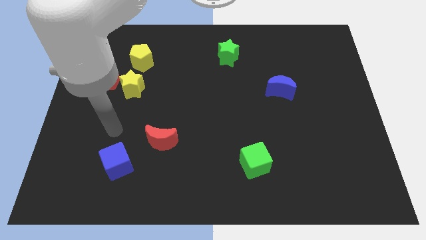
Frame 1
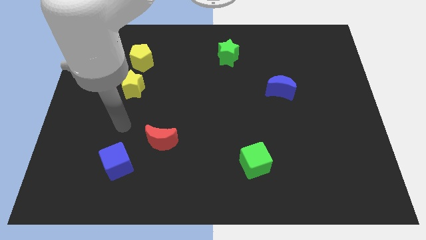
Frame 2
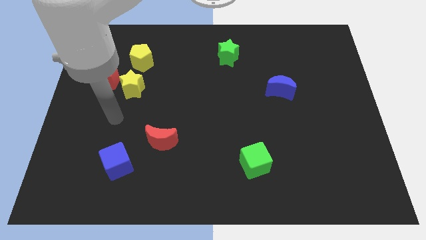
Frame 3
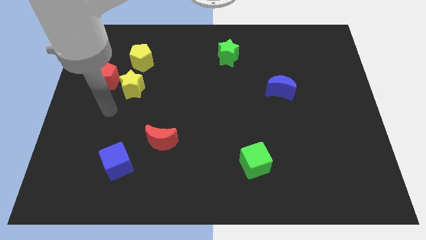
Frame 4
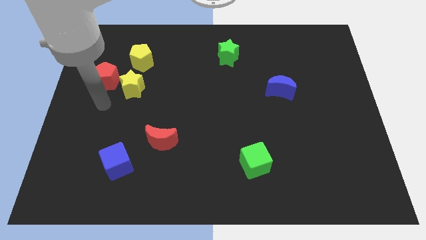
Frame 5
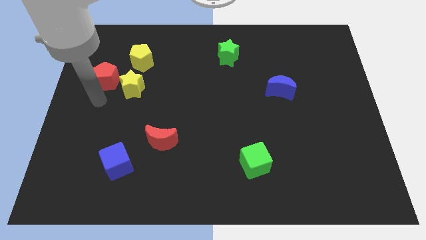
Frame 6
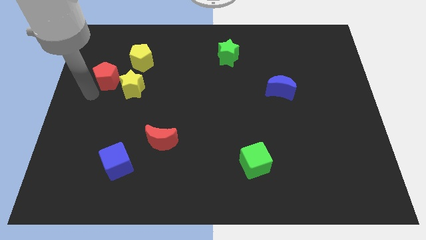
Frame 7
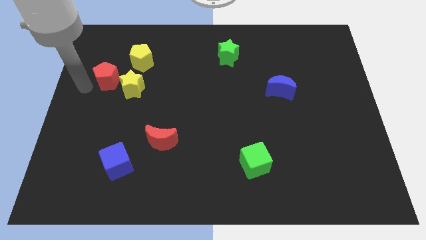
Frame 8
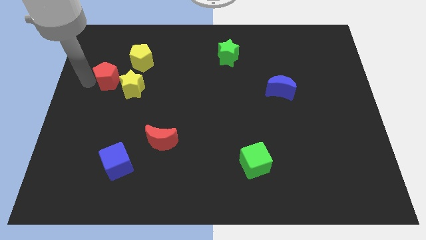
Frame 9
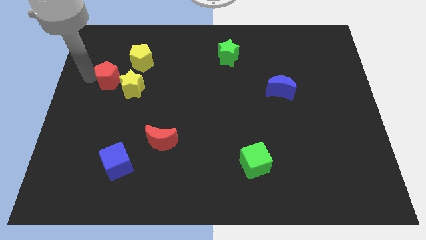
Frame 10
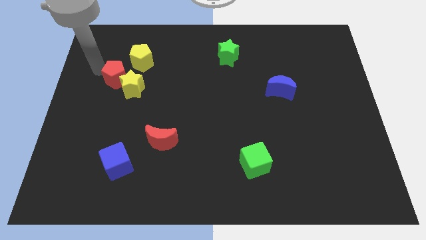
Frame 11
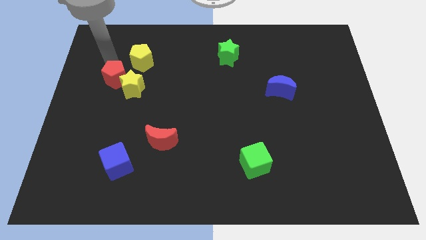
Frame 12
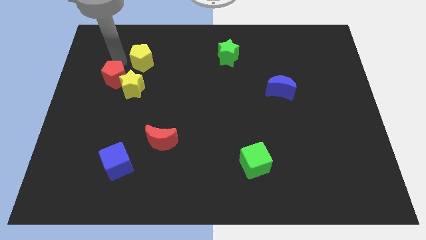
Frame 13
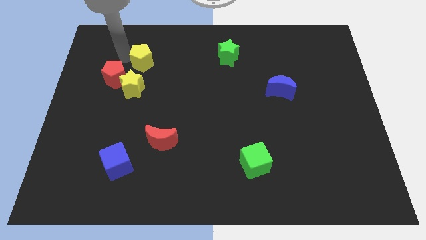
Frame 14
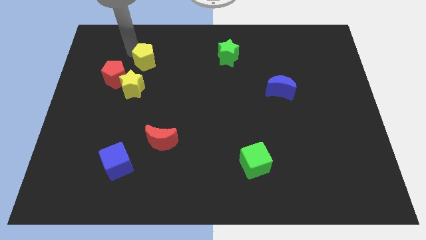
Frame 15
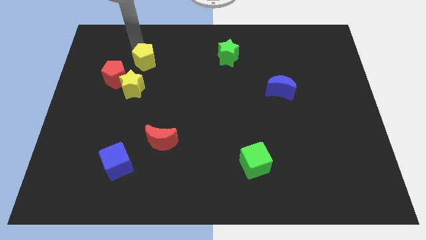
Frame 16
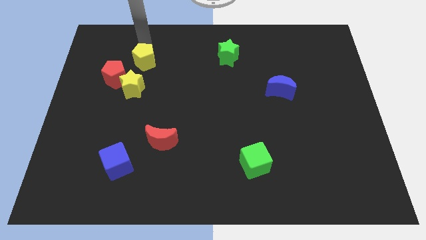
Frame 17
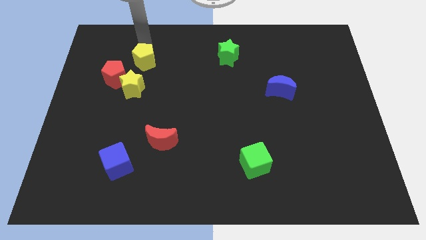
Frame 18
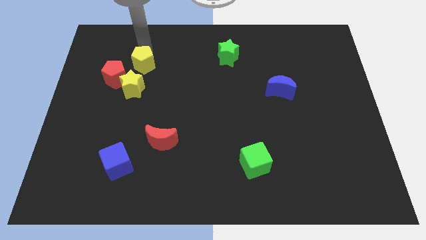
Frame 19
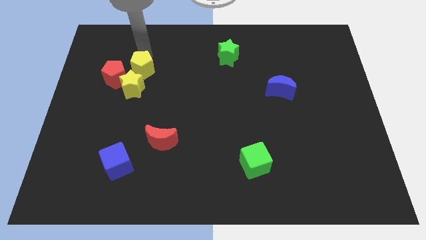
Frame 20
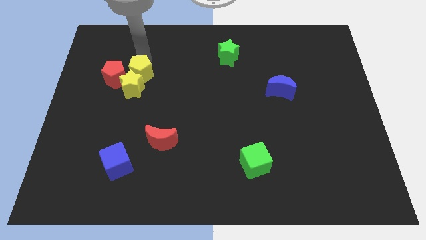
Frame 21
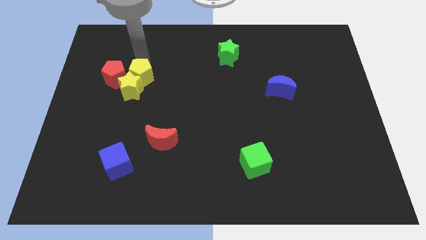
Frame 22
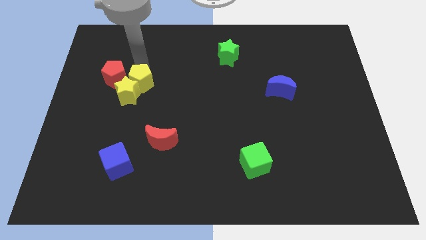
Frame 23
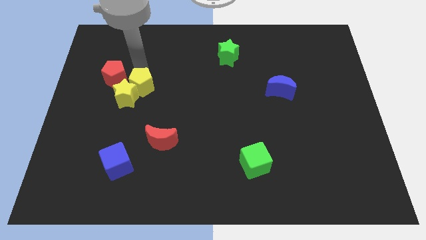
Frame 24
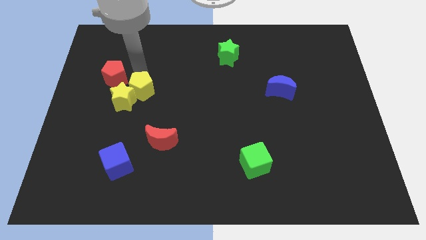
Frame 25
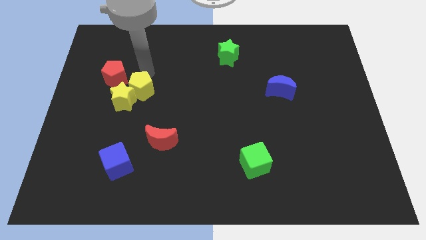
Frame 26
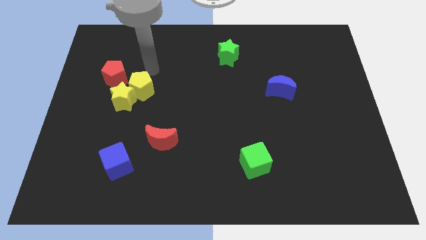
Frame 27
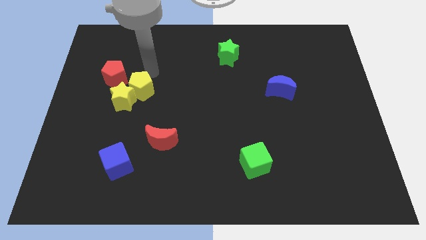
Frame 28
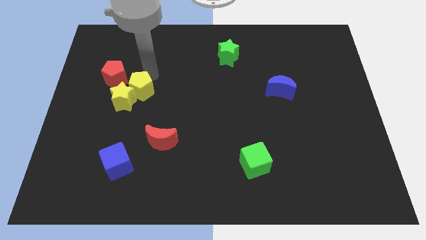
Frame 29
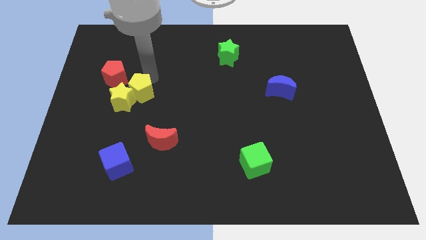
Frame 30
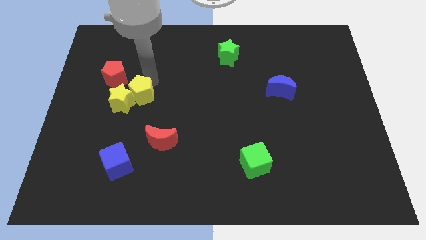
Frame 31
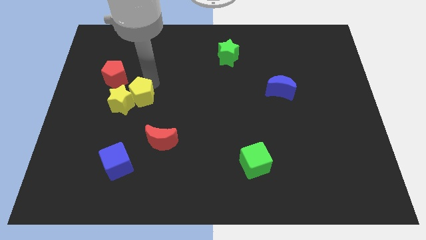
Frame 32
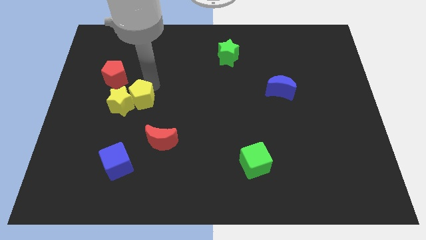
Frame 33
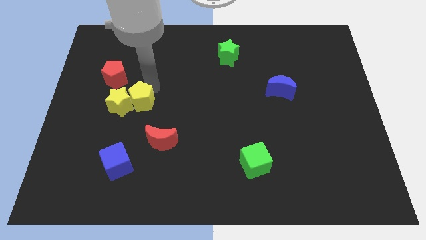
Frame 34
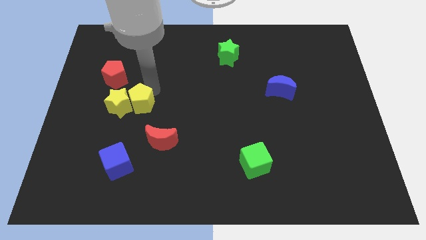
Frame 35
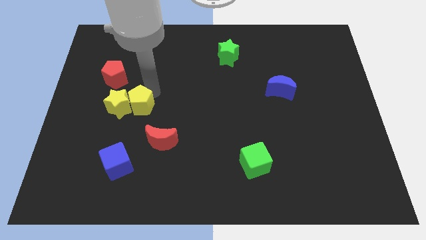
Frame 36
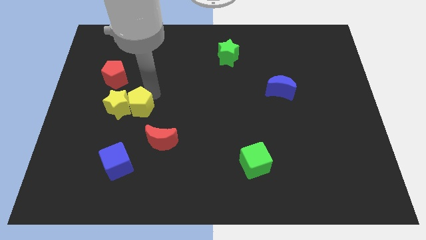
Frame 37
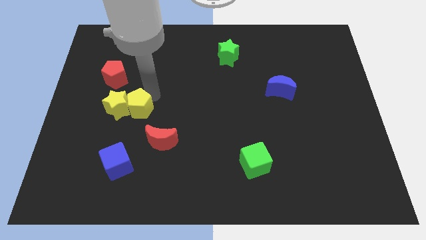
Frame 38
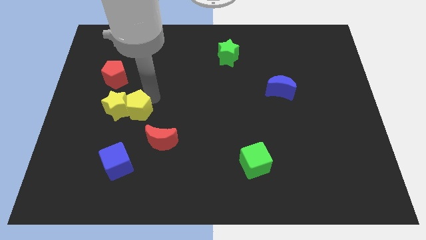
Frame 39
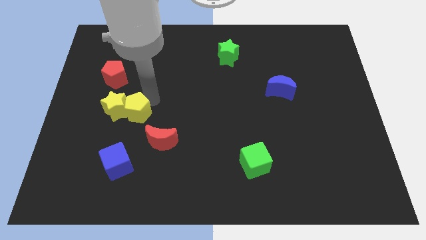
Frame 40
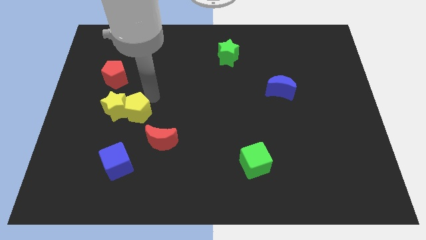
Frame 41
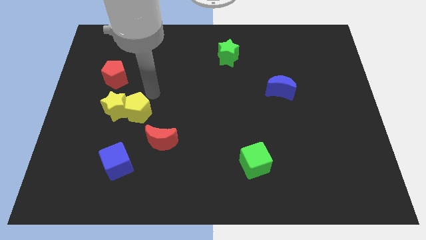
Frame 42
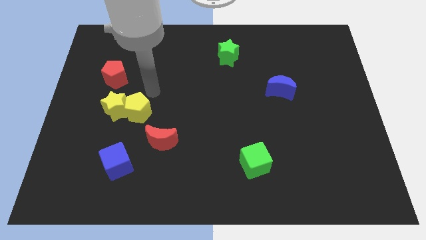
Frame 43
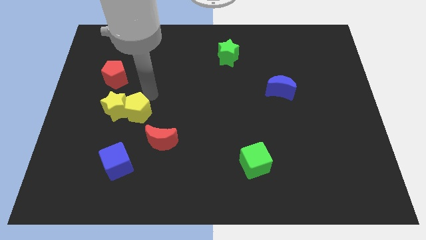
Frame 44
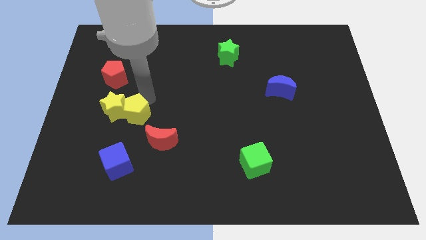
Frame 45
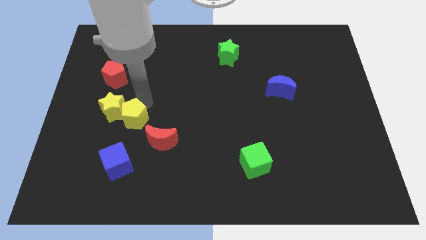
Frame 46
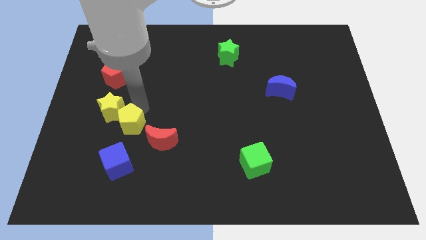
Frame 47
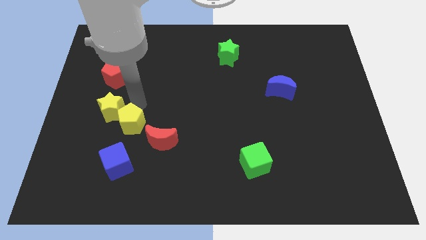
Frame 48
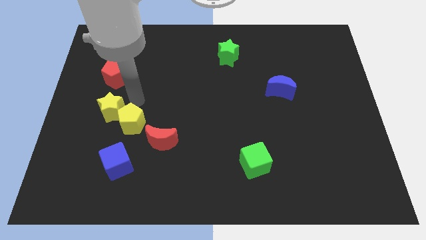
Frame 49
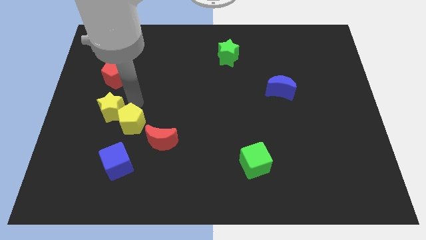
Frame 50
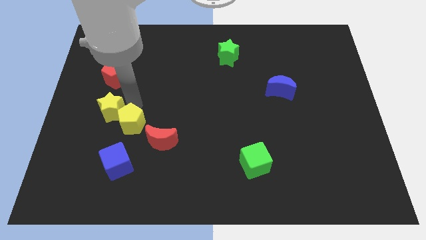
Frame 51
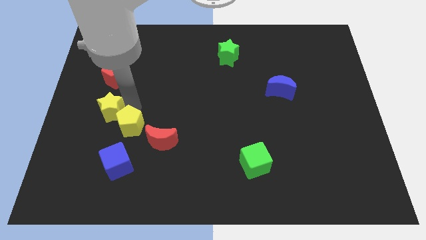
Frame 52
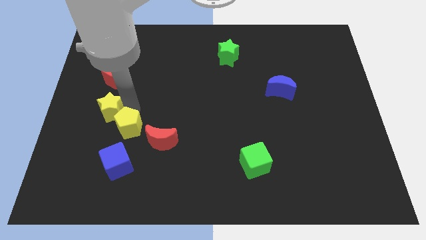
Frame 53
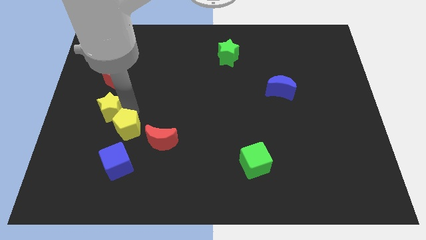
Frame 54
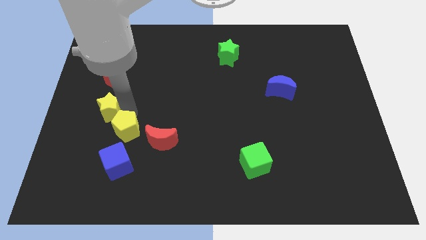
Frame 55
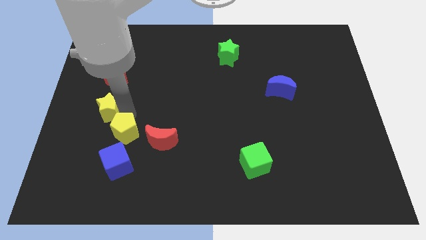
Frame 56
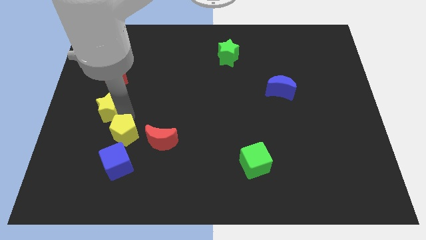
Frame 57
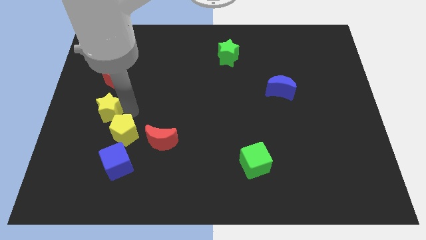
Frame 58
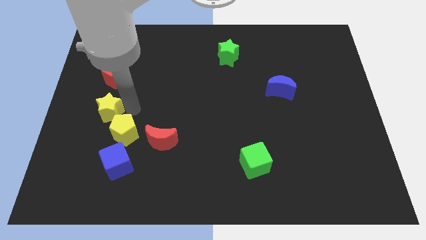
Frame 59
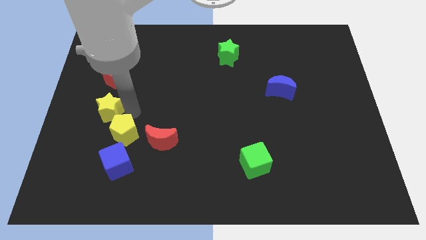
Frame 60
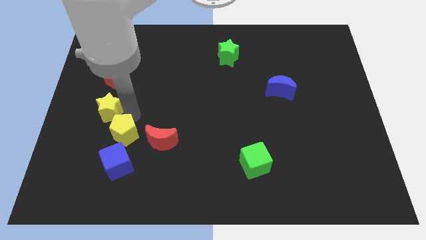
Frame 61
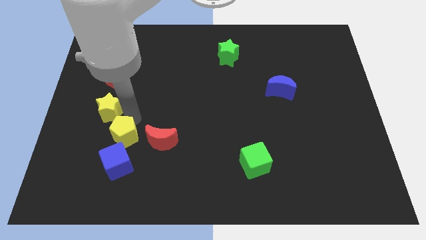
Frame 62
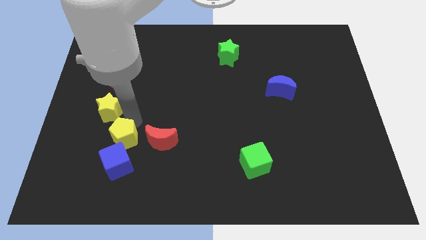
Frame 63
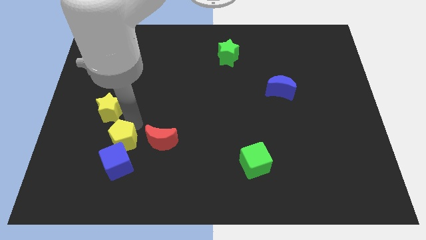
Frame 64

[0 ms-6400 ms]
slide the yellow pentagon next to the blue cube

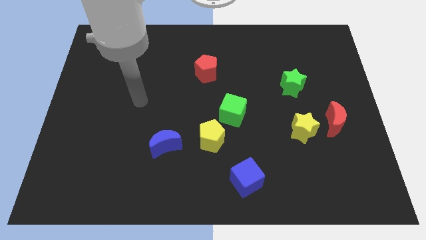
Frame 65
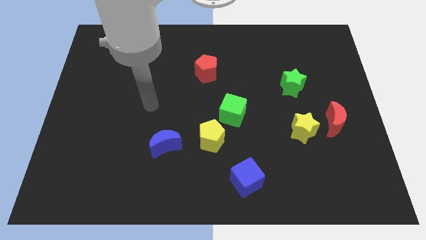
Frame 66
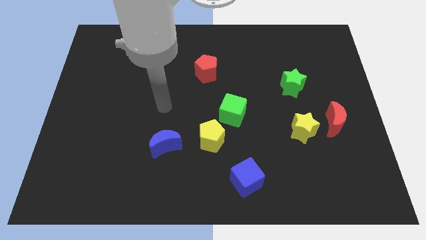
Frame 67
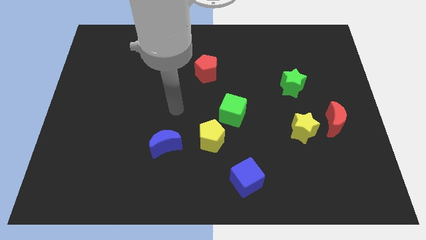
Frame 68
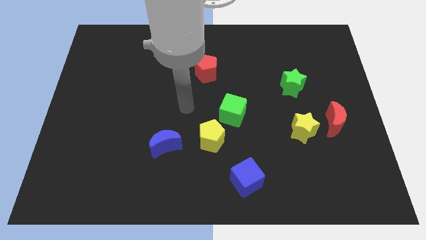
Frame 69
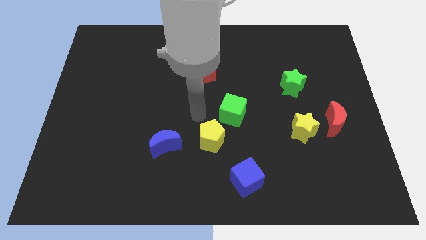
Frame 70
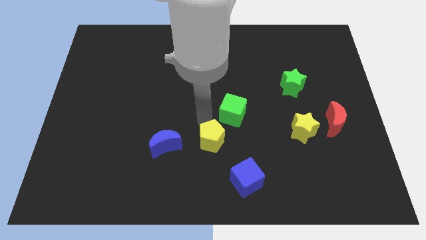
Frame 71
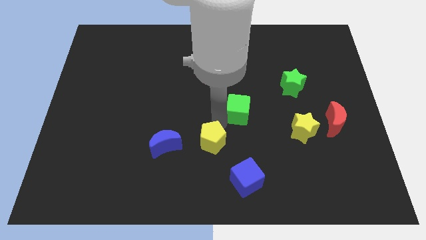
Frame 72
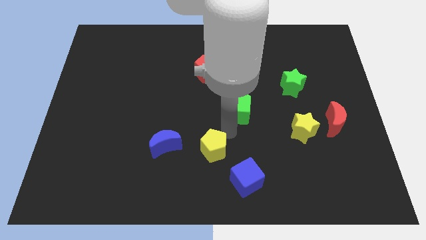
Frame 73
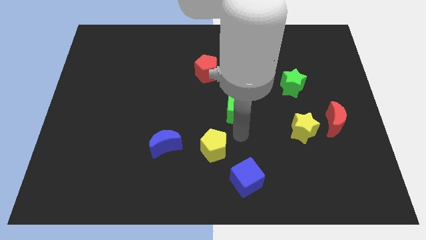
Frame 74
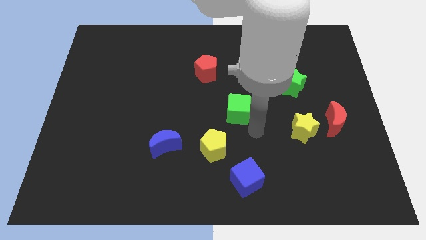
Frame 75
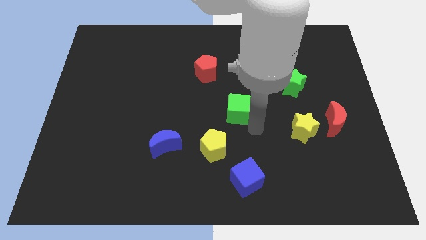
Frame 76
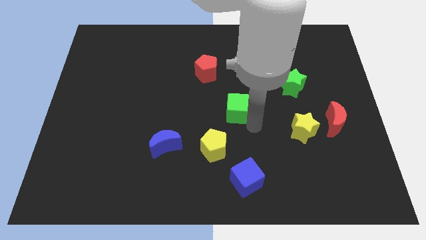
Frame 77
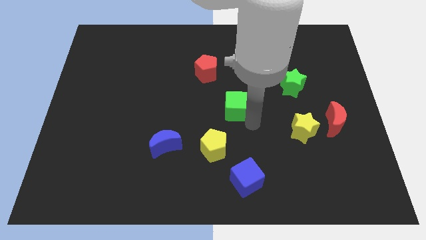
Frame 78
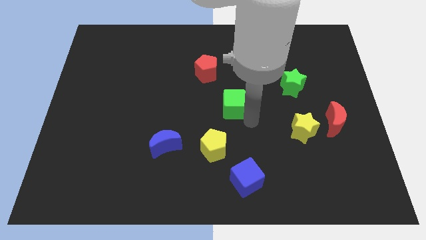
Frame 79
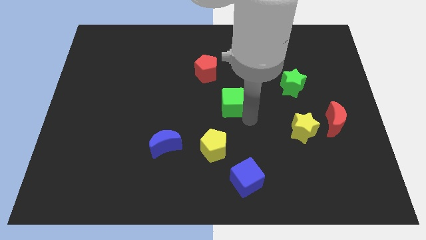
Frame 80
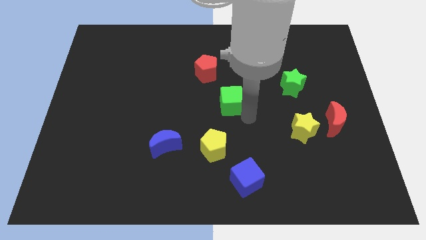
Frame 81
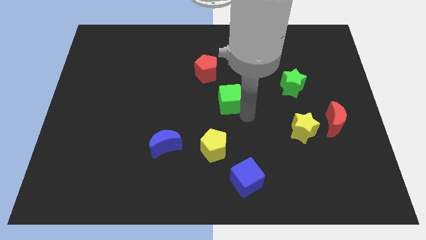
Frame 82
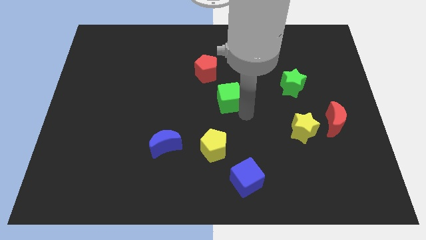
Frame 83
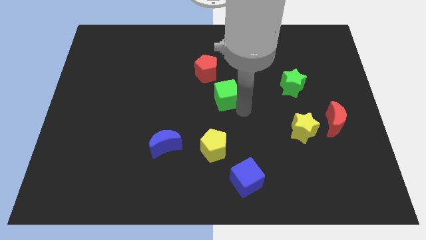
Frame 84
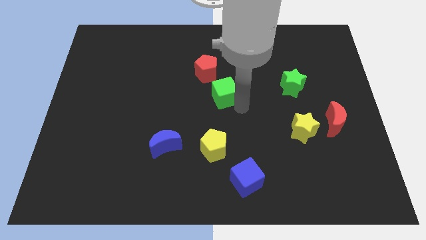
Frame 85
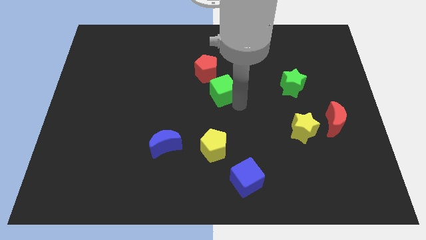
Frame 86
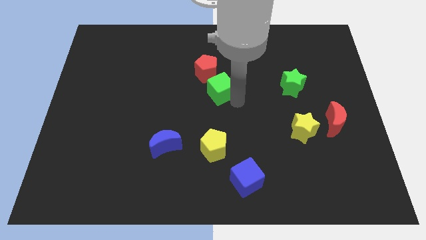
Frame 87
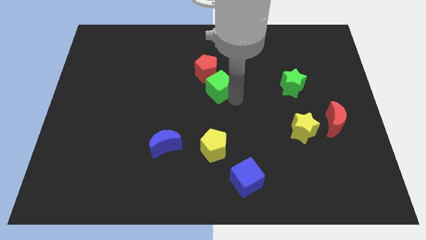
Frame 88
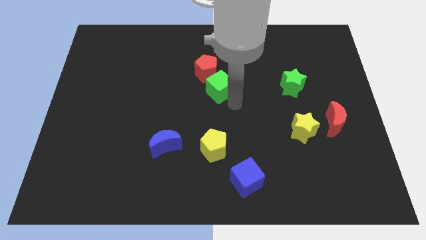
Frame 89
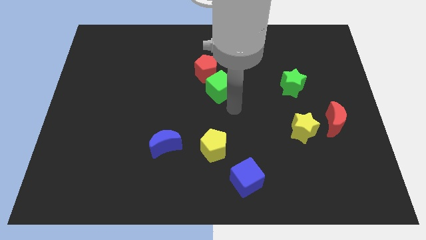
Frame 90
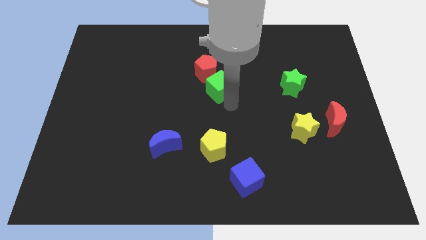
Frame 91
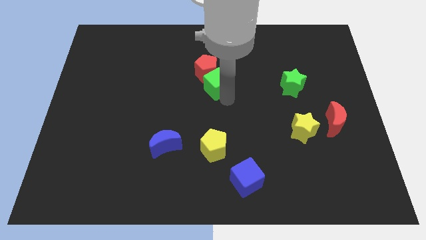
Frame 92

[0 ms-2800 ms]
put the green cube next to the red pentagon
